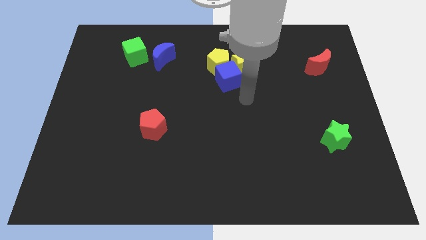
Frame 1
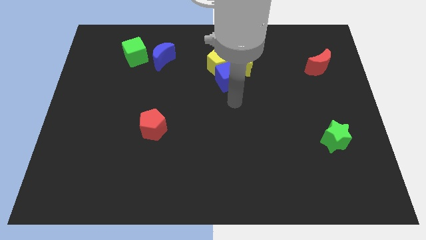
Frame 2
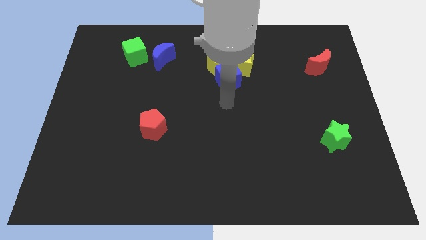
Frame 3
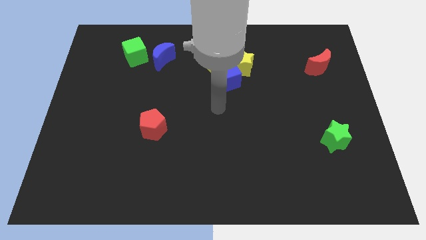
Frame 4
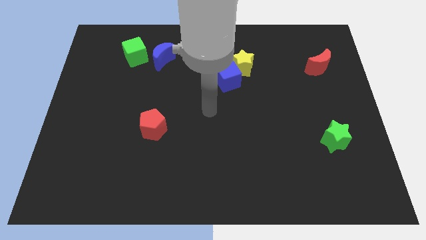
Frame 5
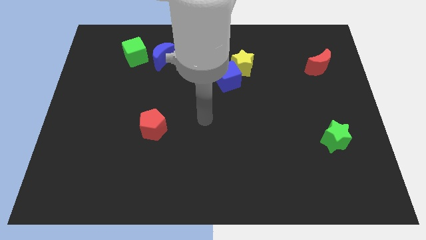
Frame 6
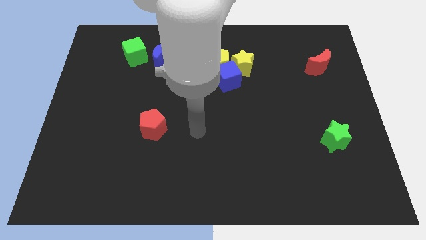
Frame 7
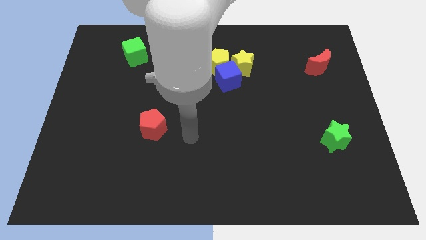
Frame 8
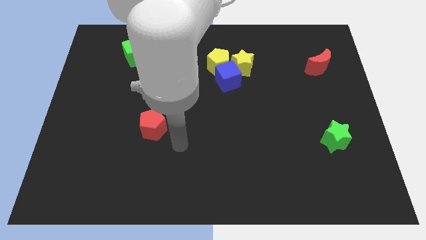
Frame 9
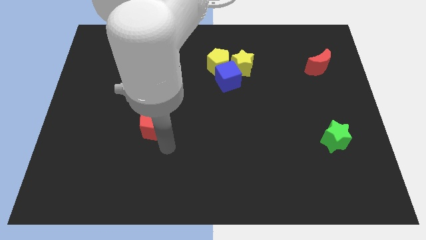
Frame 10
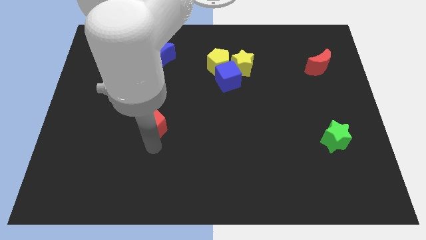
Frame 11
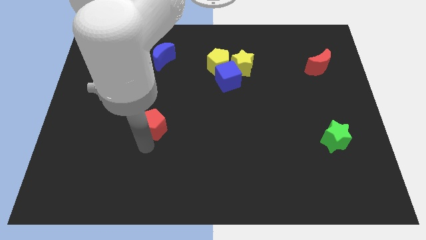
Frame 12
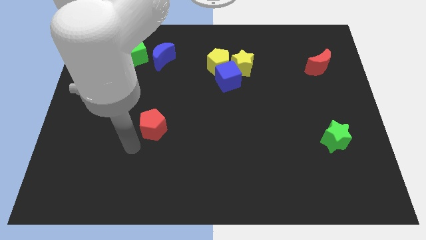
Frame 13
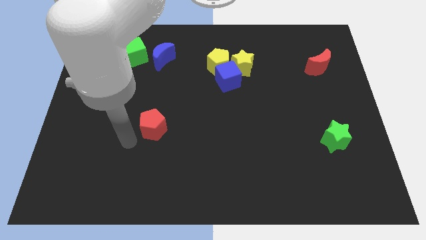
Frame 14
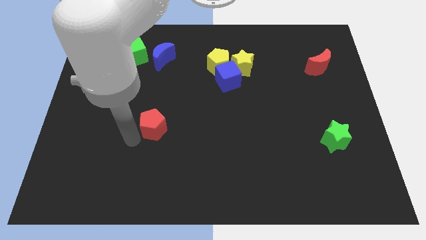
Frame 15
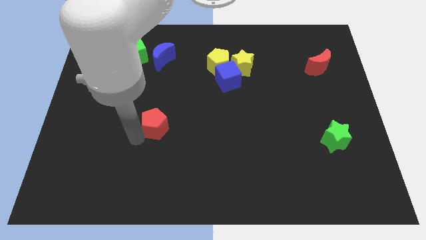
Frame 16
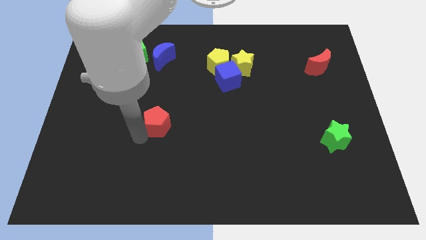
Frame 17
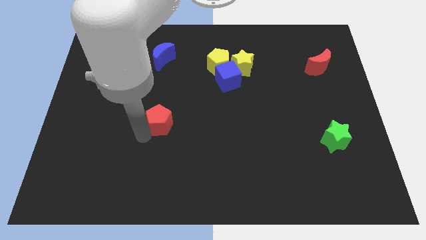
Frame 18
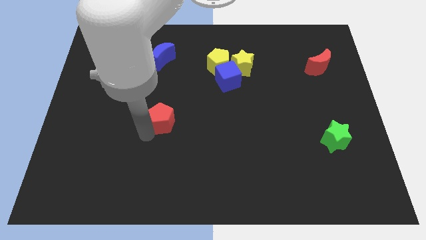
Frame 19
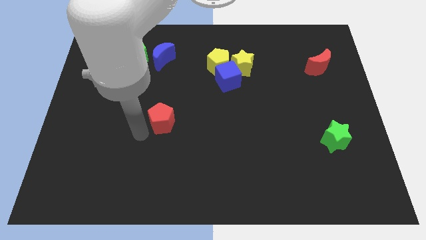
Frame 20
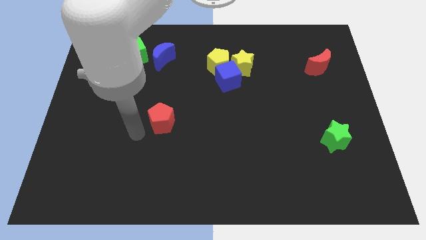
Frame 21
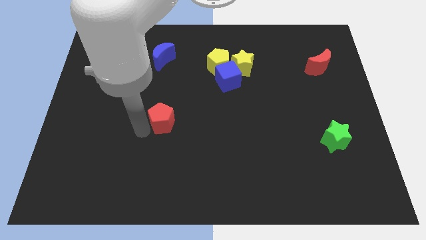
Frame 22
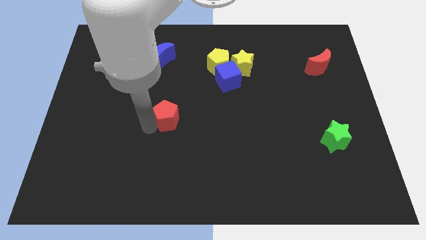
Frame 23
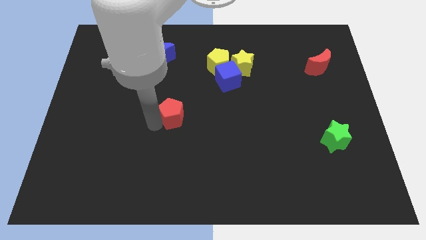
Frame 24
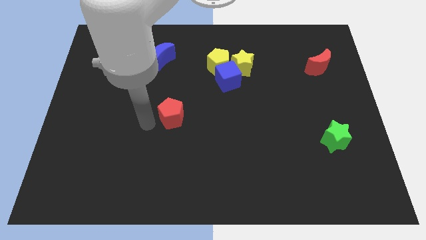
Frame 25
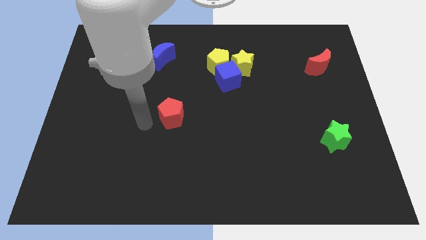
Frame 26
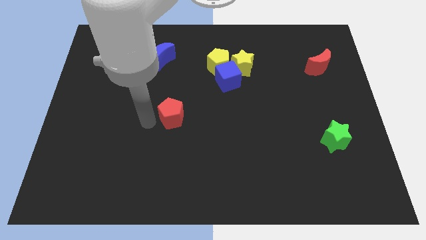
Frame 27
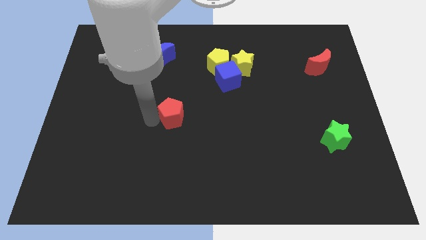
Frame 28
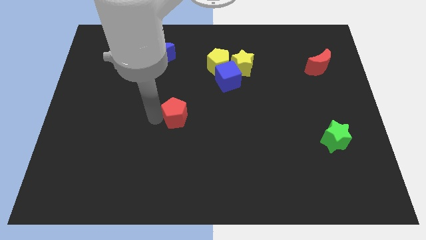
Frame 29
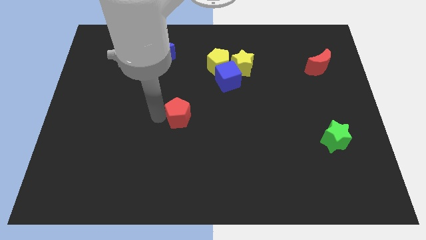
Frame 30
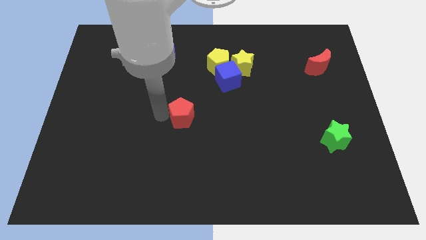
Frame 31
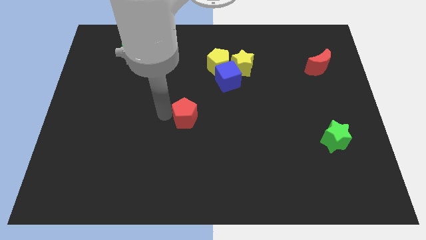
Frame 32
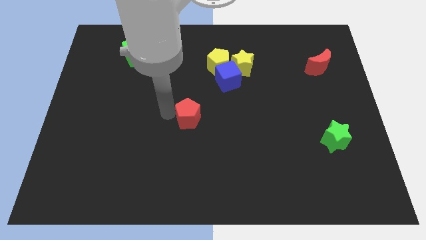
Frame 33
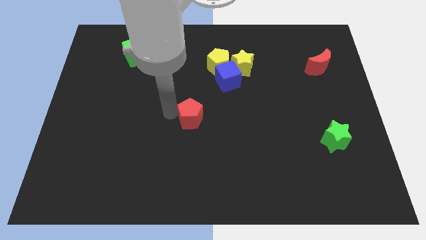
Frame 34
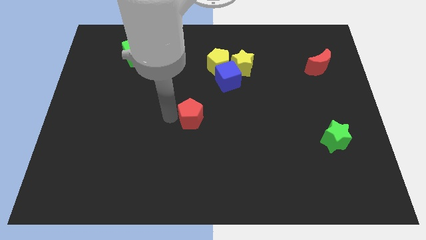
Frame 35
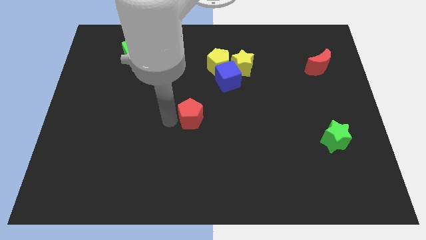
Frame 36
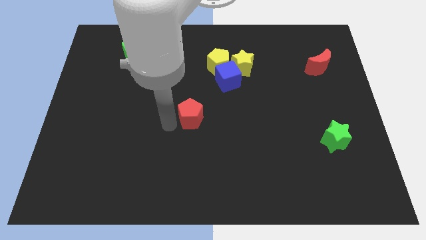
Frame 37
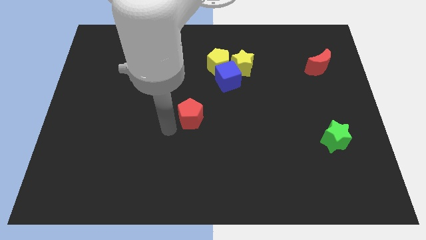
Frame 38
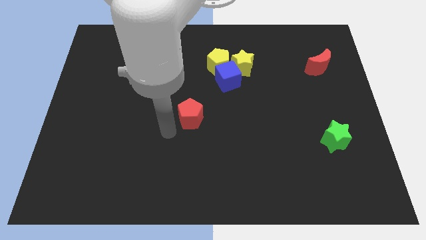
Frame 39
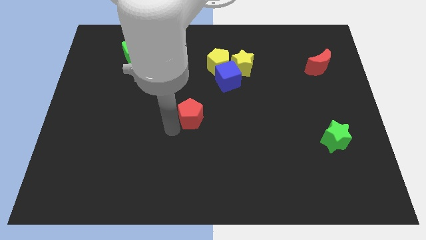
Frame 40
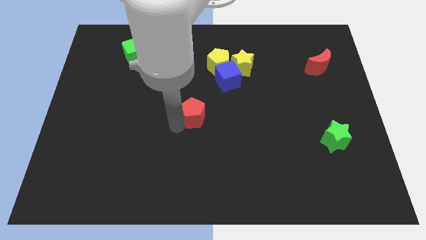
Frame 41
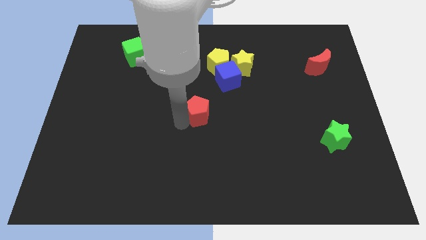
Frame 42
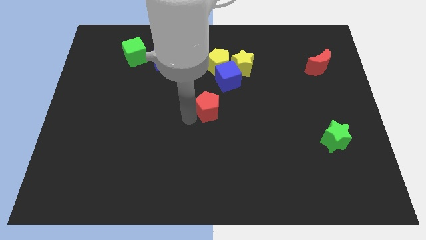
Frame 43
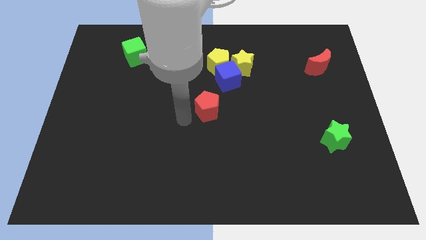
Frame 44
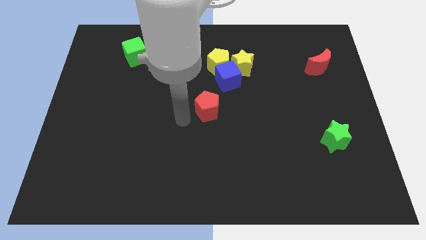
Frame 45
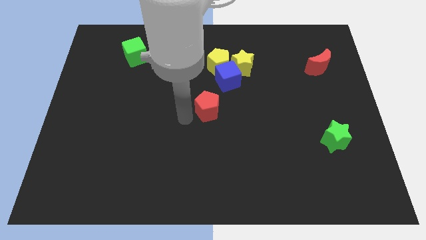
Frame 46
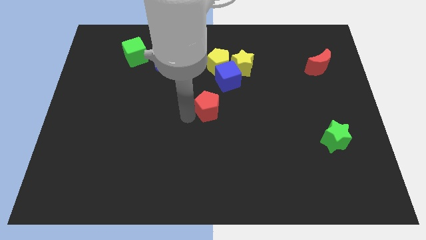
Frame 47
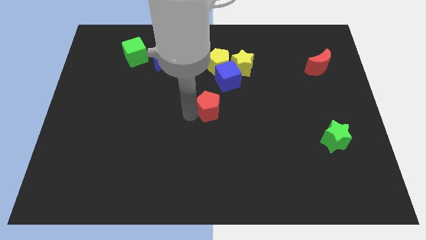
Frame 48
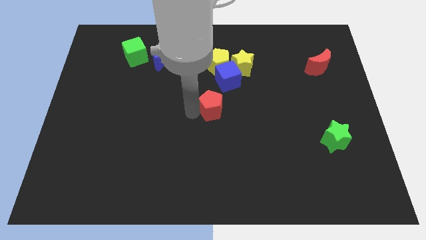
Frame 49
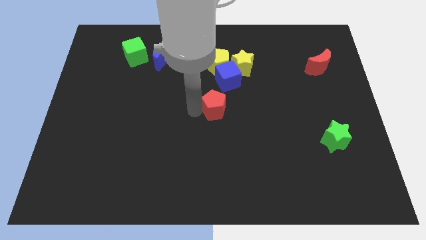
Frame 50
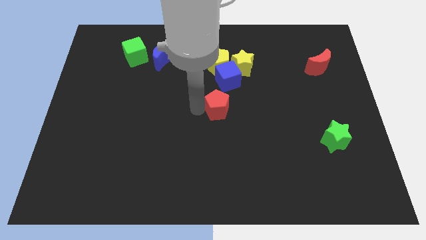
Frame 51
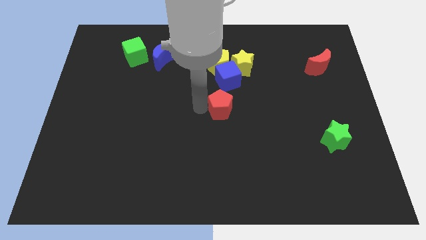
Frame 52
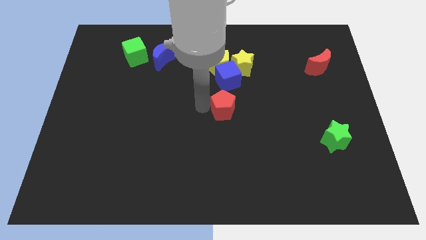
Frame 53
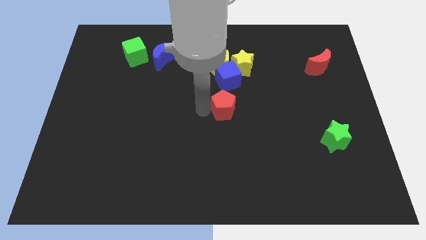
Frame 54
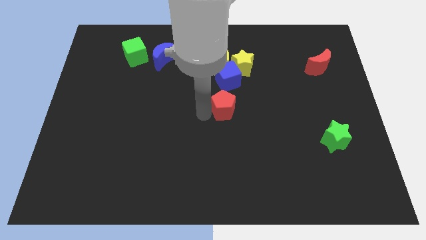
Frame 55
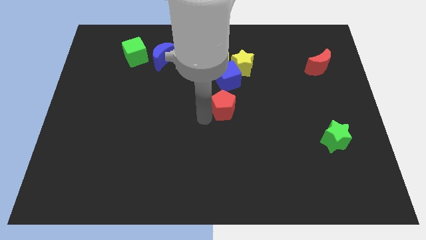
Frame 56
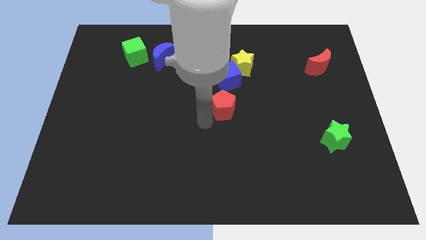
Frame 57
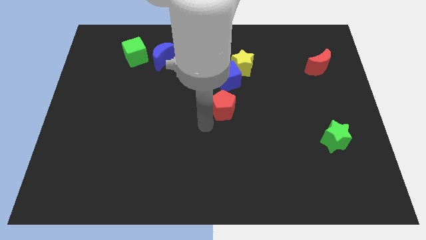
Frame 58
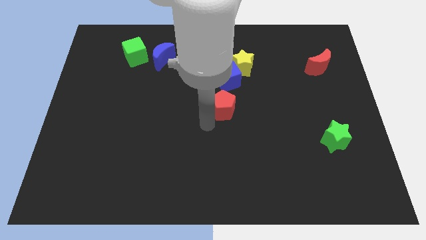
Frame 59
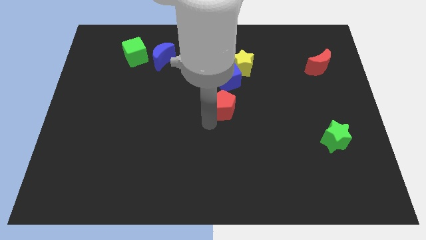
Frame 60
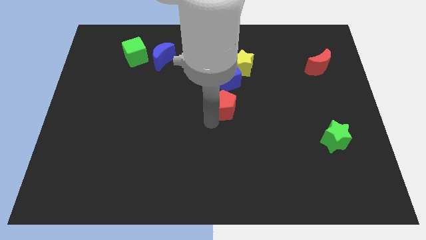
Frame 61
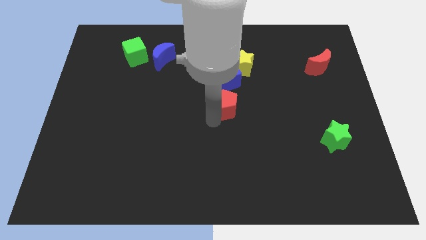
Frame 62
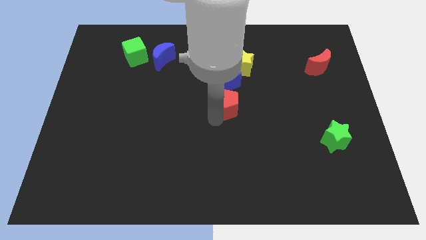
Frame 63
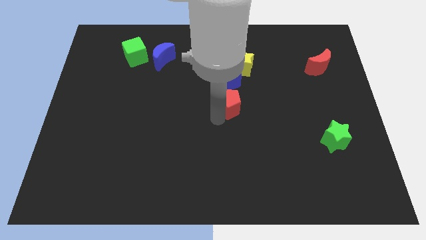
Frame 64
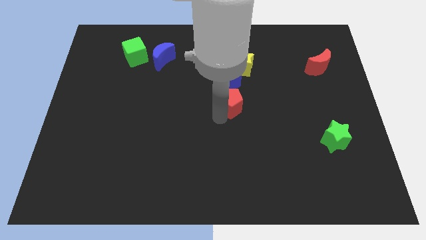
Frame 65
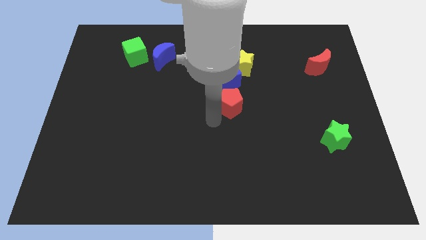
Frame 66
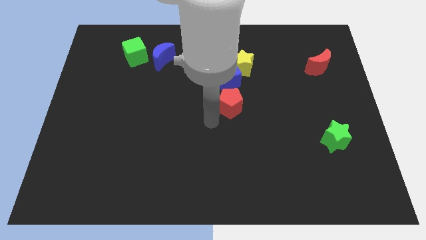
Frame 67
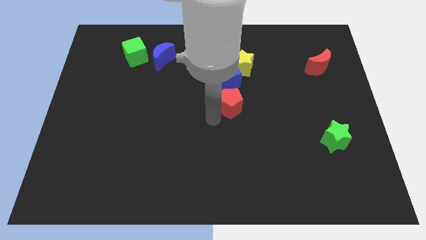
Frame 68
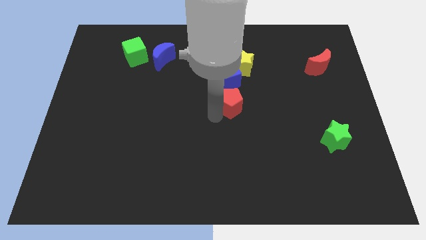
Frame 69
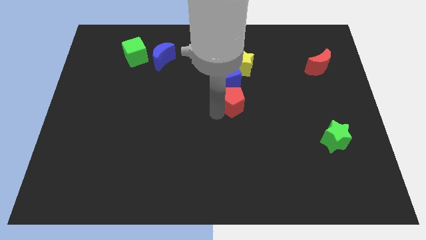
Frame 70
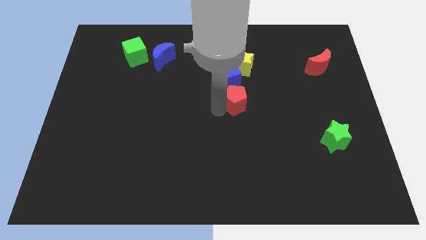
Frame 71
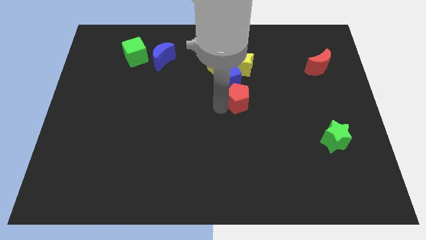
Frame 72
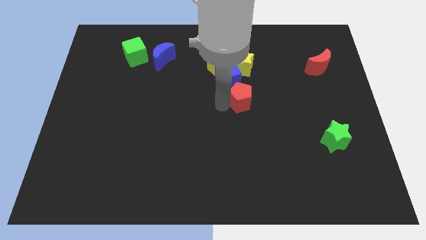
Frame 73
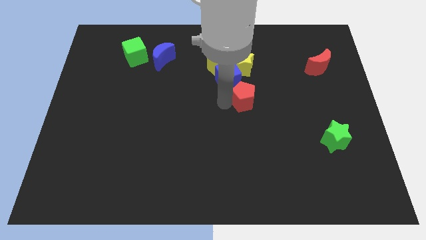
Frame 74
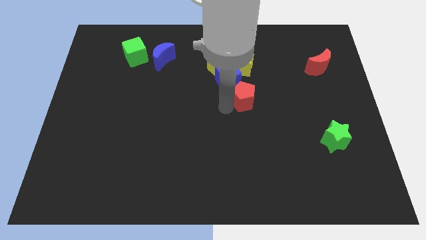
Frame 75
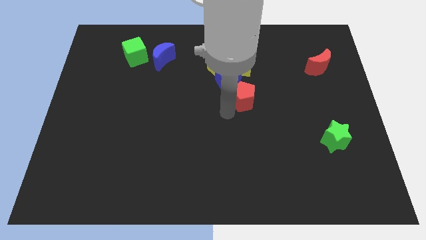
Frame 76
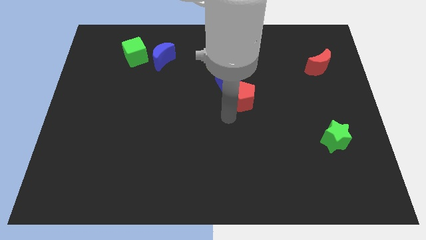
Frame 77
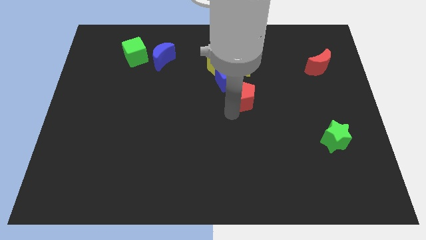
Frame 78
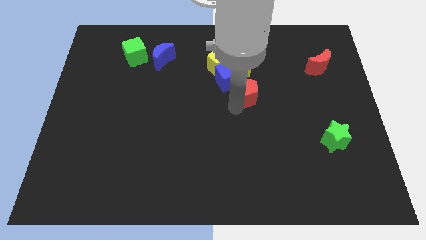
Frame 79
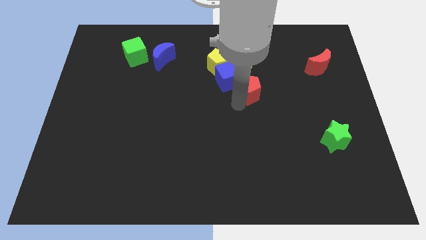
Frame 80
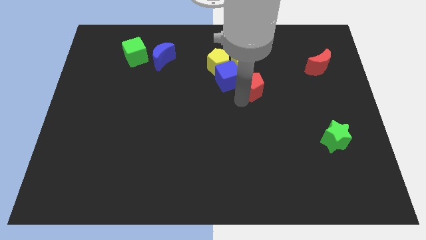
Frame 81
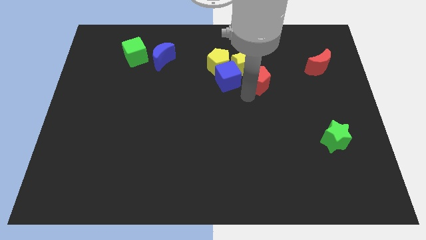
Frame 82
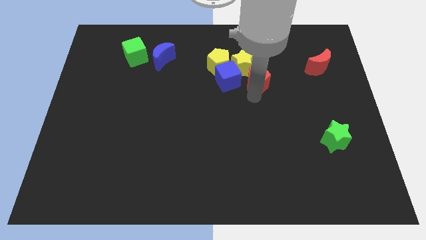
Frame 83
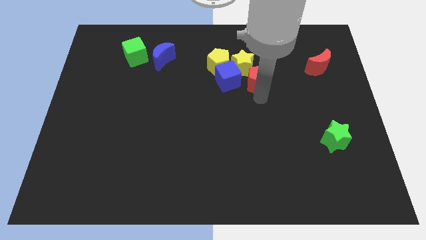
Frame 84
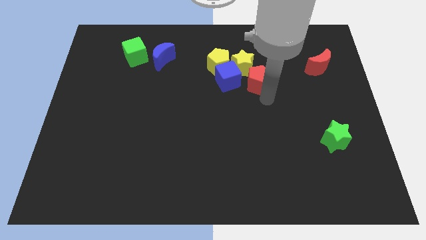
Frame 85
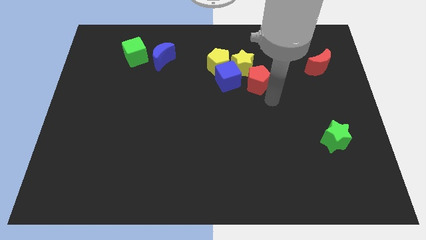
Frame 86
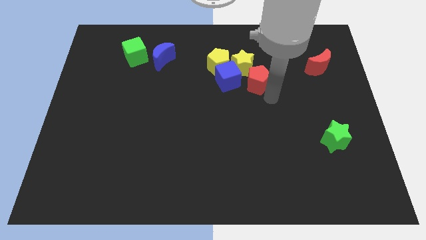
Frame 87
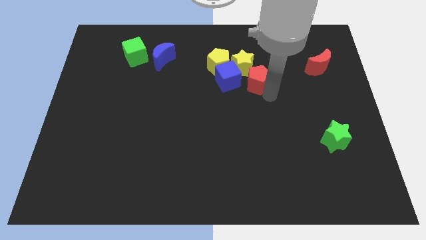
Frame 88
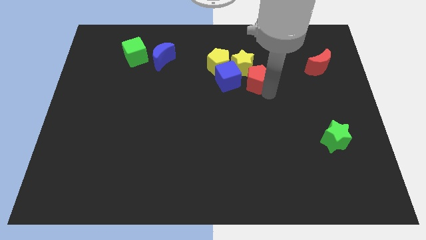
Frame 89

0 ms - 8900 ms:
move the red pentagon close to the yellow star
